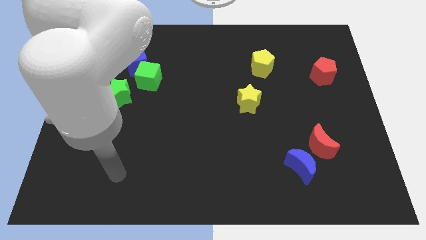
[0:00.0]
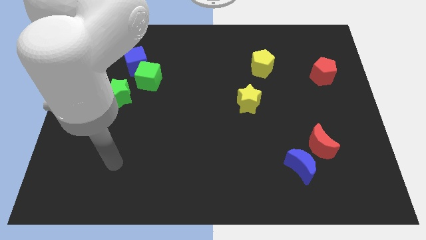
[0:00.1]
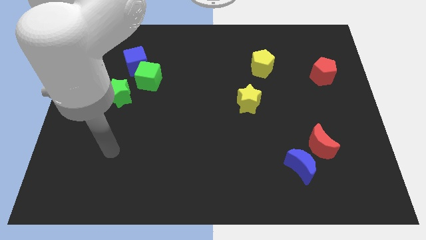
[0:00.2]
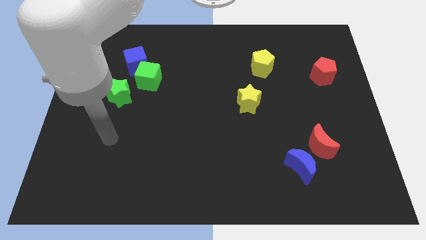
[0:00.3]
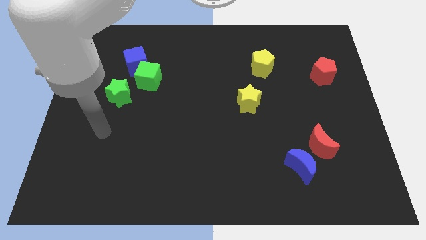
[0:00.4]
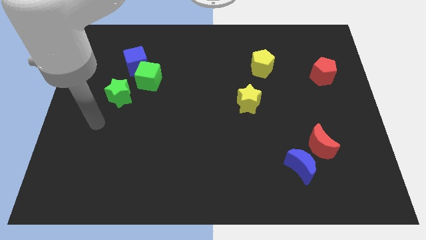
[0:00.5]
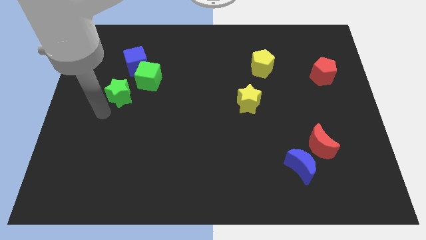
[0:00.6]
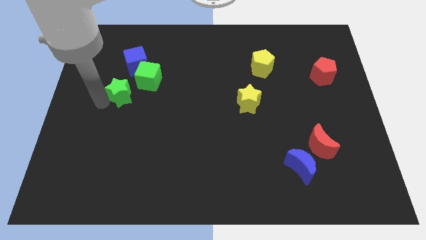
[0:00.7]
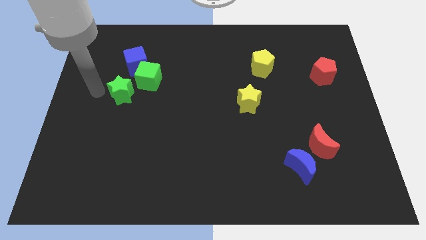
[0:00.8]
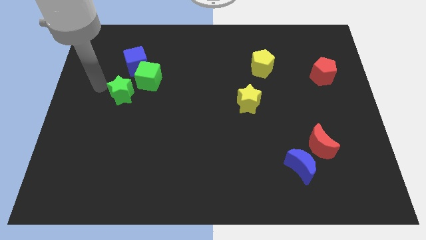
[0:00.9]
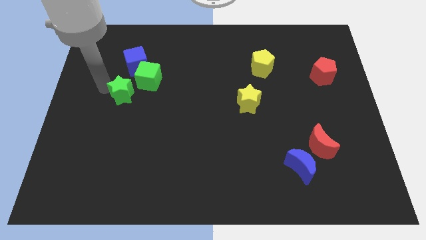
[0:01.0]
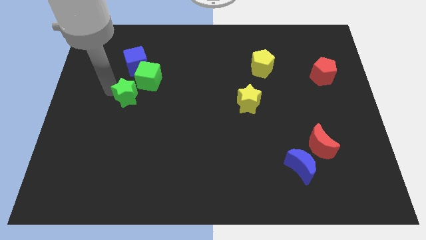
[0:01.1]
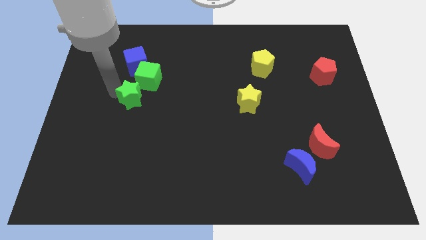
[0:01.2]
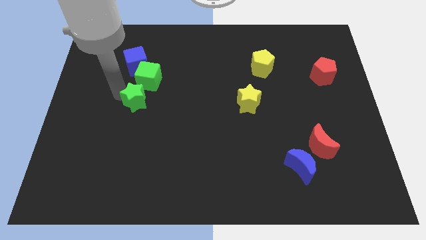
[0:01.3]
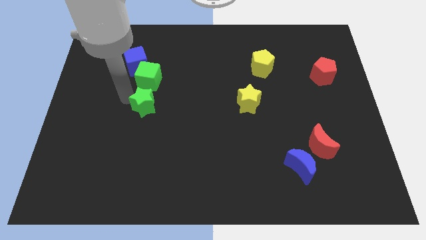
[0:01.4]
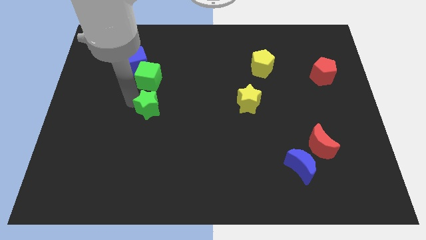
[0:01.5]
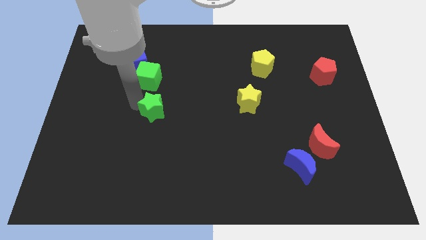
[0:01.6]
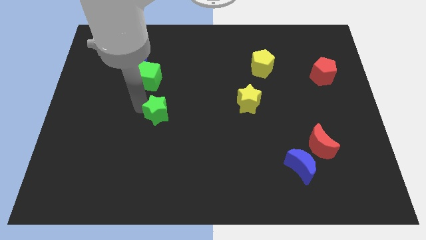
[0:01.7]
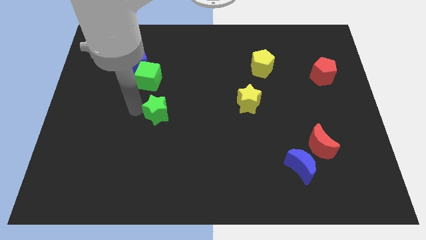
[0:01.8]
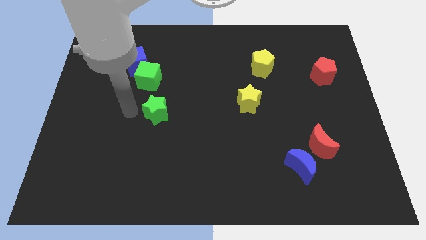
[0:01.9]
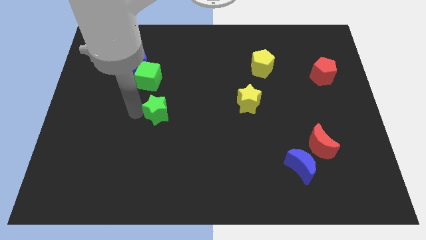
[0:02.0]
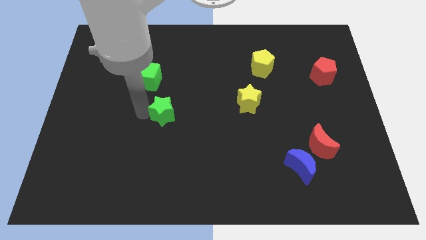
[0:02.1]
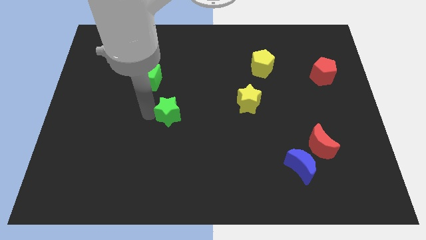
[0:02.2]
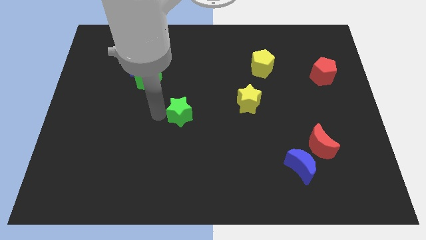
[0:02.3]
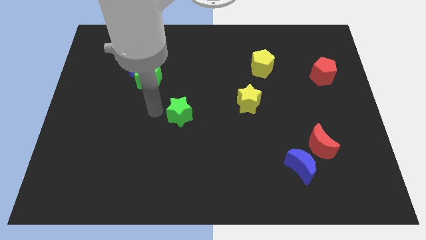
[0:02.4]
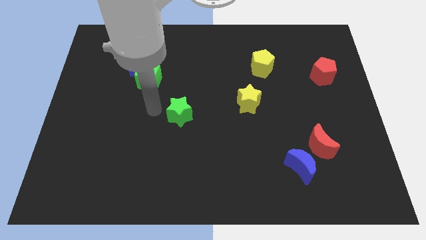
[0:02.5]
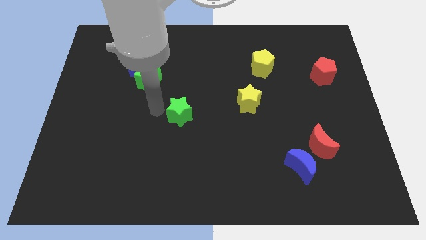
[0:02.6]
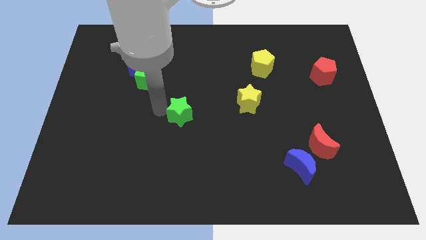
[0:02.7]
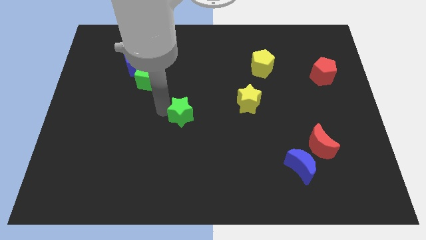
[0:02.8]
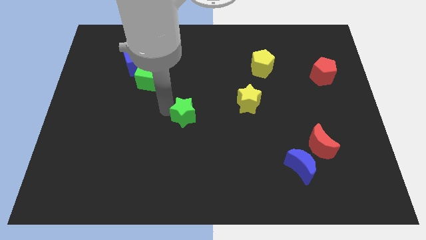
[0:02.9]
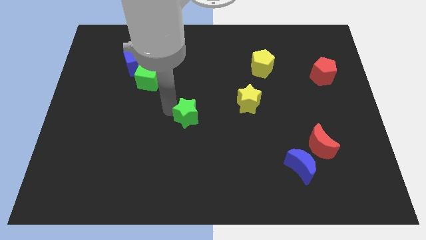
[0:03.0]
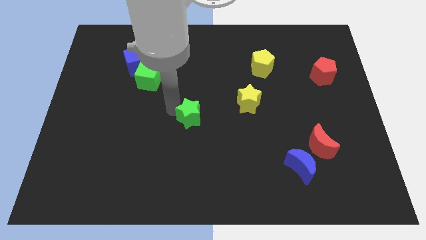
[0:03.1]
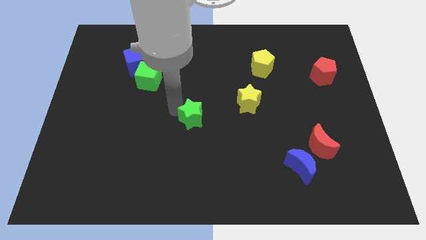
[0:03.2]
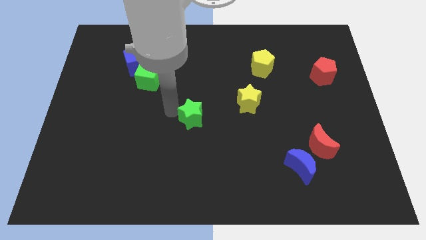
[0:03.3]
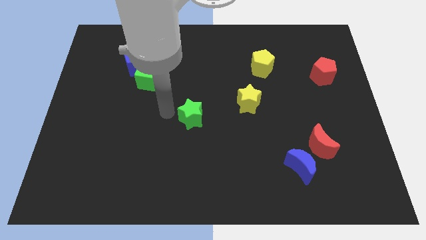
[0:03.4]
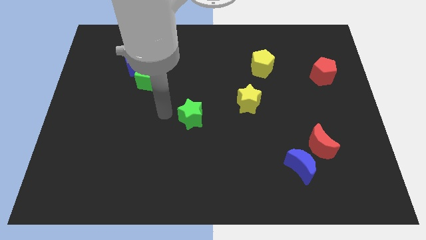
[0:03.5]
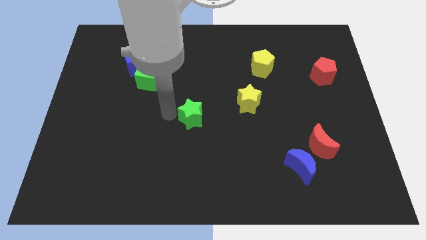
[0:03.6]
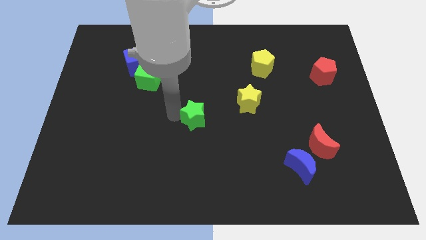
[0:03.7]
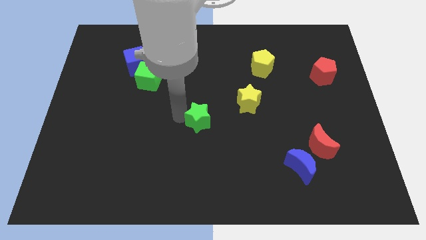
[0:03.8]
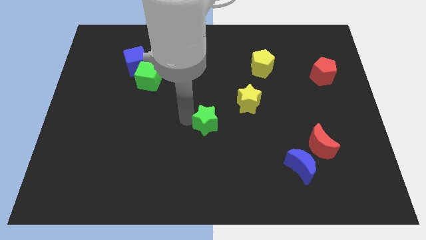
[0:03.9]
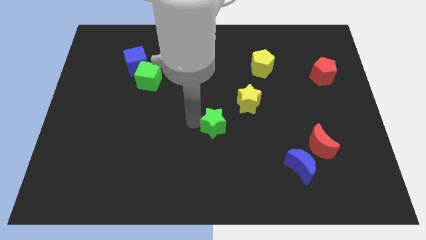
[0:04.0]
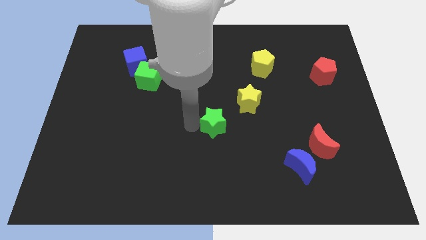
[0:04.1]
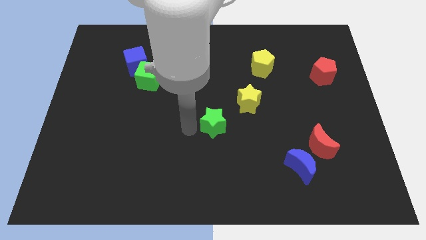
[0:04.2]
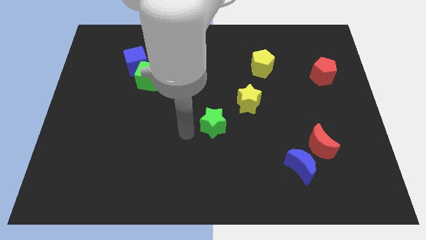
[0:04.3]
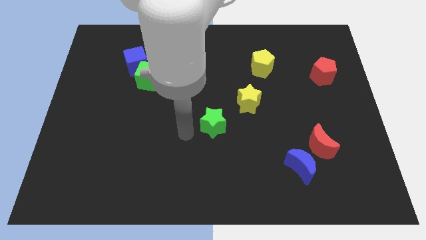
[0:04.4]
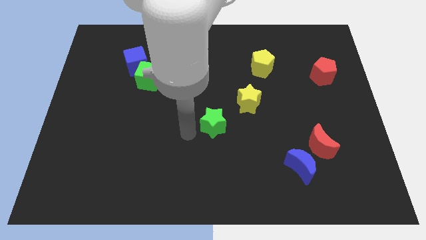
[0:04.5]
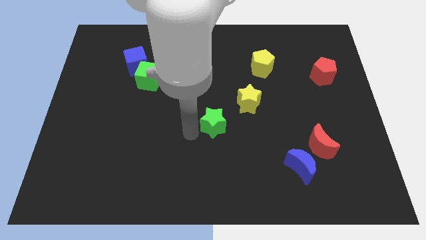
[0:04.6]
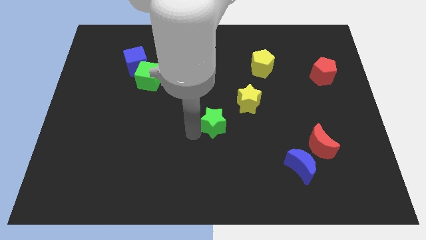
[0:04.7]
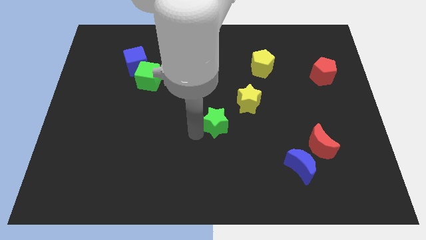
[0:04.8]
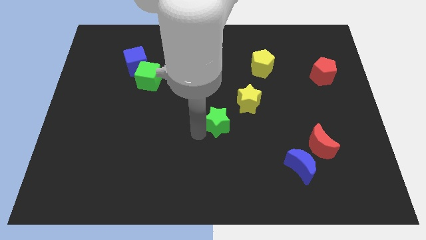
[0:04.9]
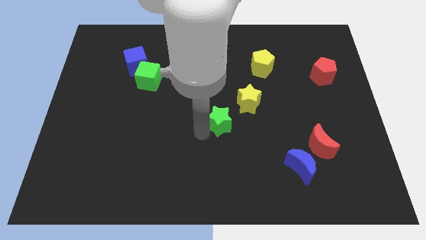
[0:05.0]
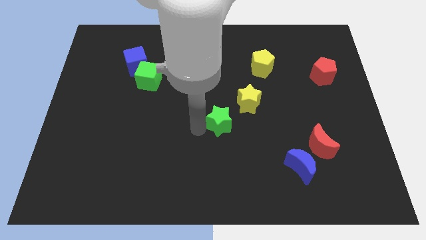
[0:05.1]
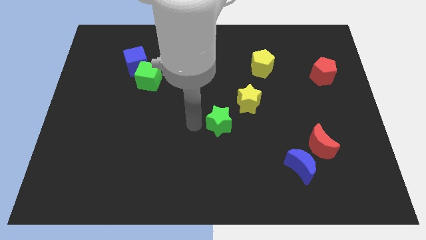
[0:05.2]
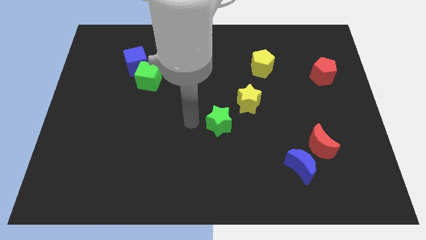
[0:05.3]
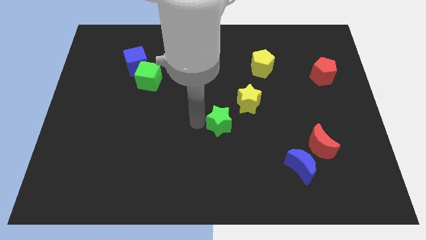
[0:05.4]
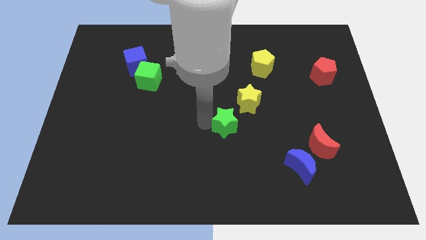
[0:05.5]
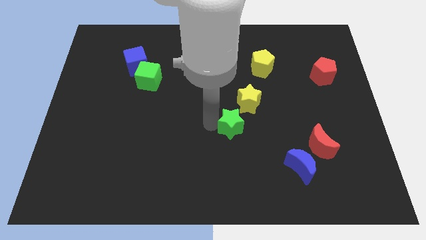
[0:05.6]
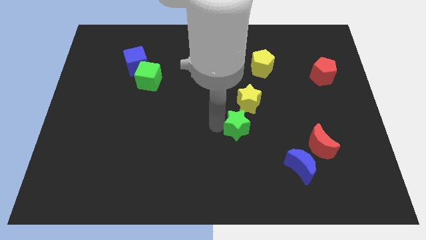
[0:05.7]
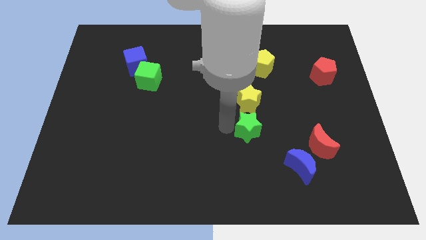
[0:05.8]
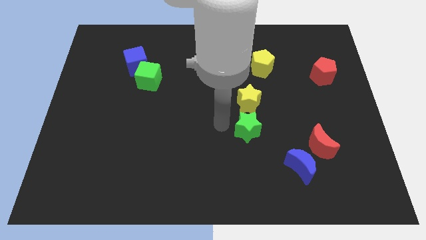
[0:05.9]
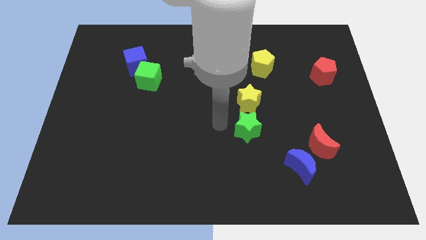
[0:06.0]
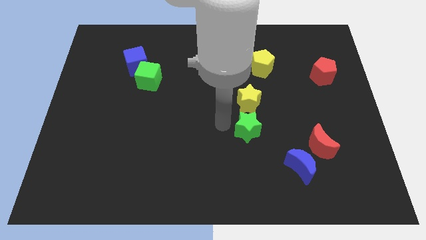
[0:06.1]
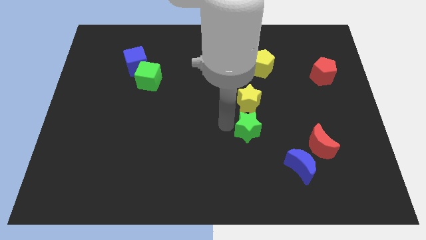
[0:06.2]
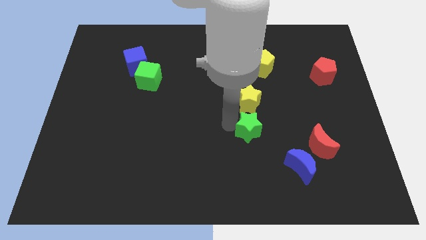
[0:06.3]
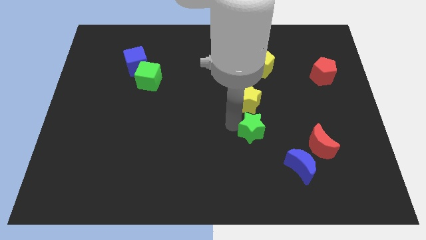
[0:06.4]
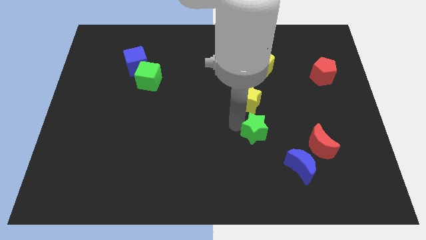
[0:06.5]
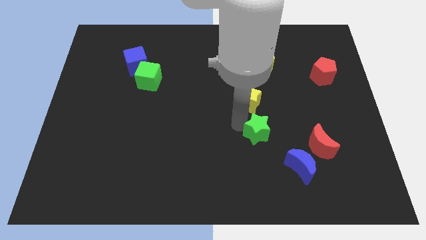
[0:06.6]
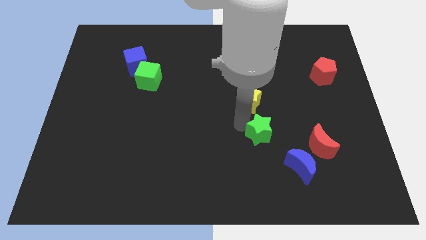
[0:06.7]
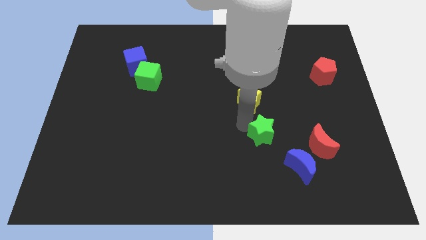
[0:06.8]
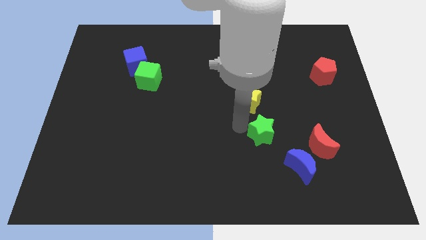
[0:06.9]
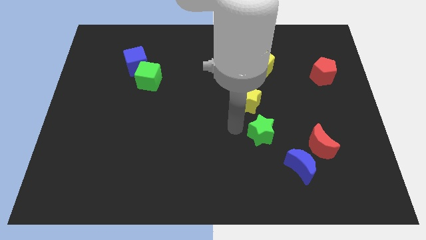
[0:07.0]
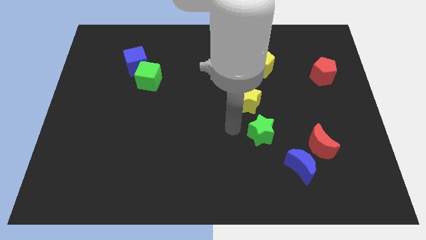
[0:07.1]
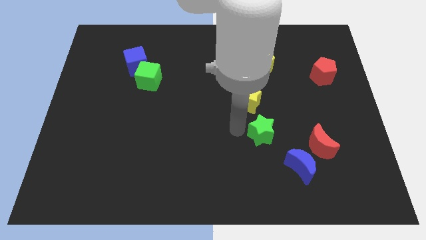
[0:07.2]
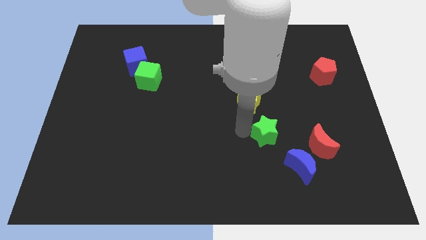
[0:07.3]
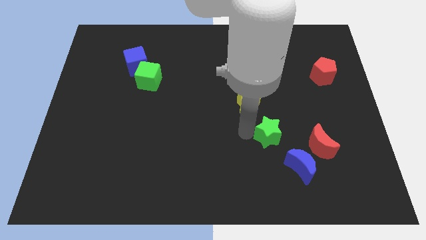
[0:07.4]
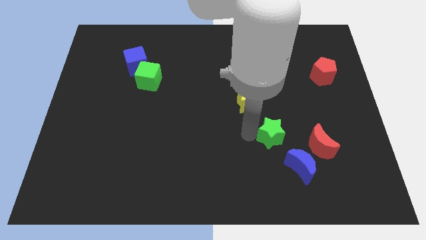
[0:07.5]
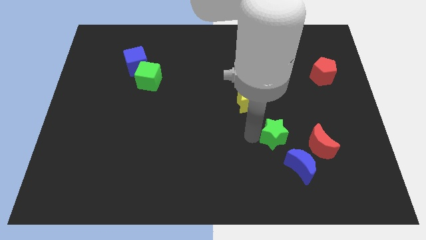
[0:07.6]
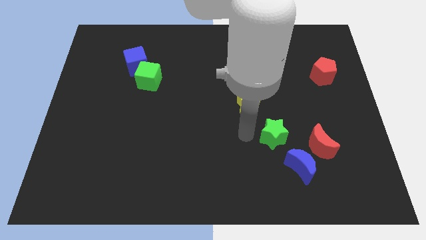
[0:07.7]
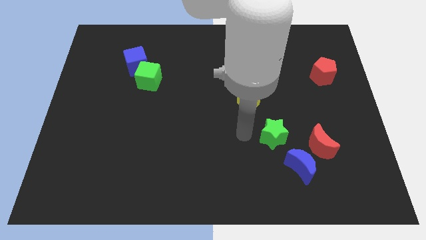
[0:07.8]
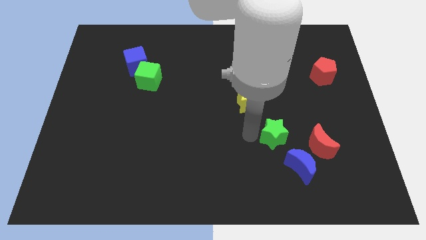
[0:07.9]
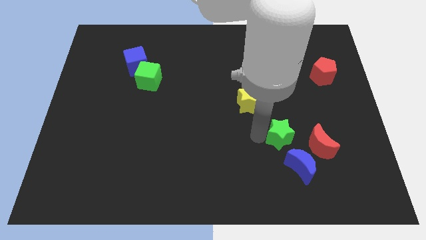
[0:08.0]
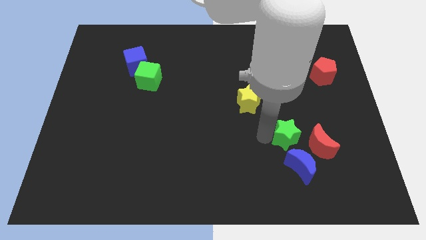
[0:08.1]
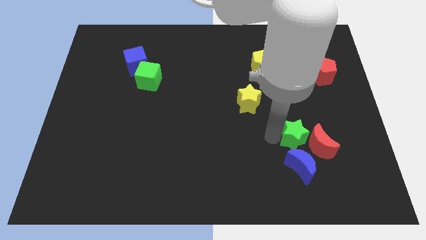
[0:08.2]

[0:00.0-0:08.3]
move the green star to the red moon
